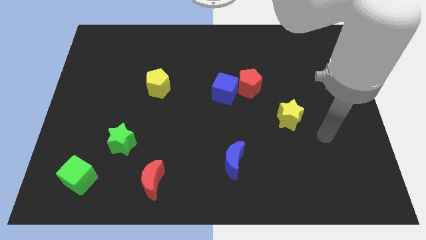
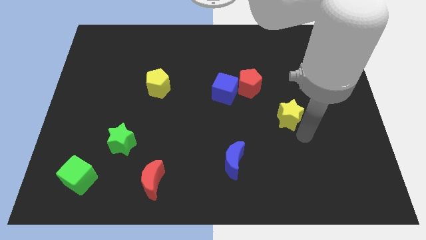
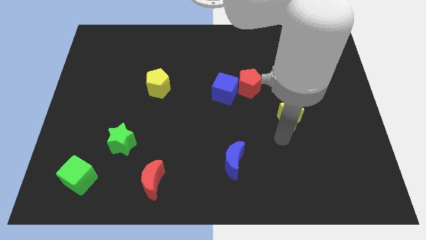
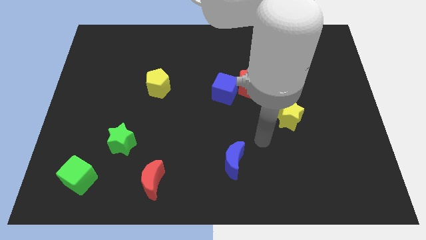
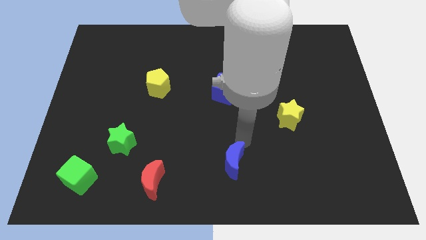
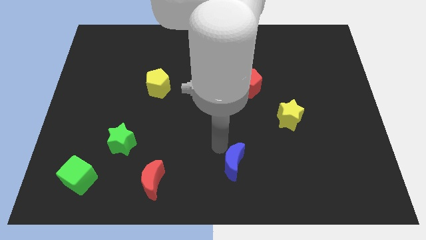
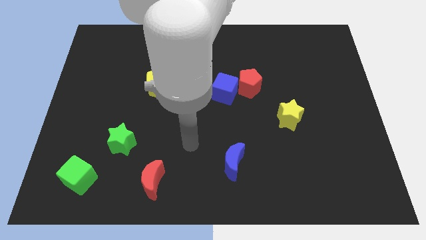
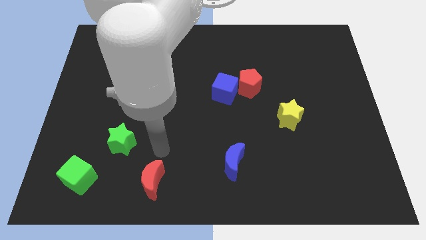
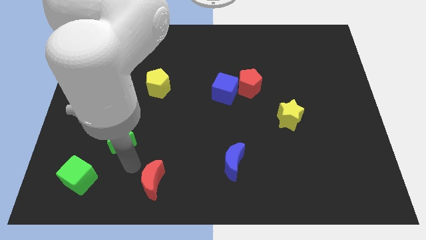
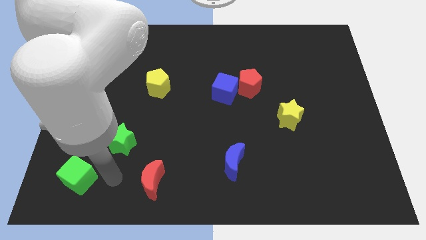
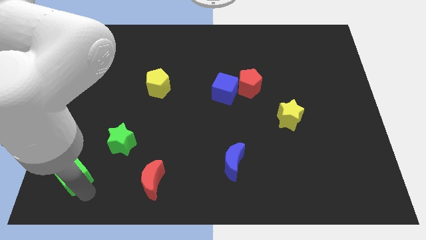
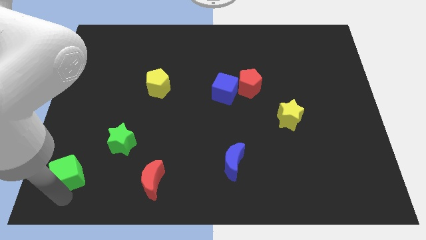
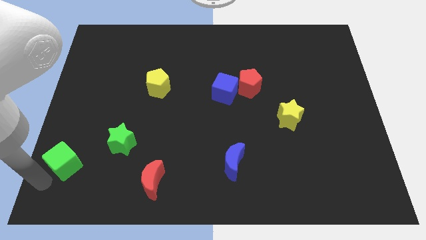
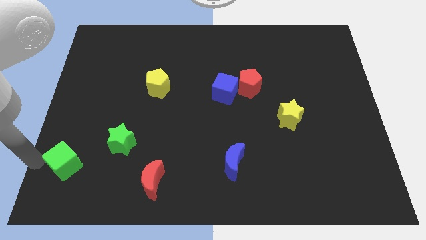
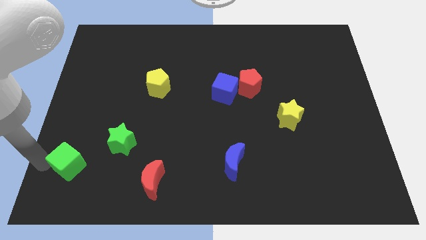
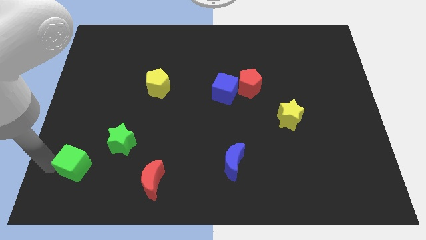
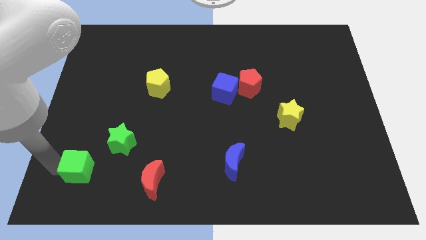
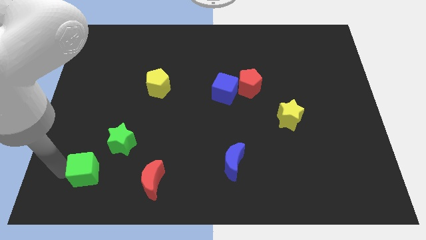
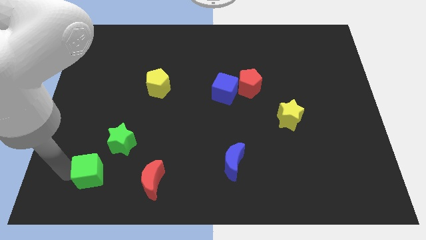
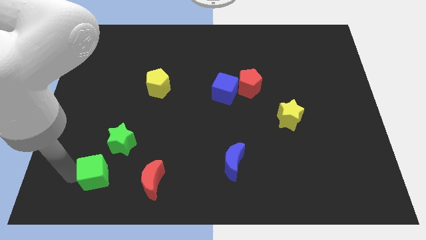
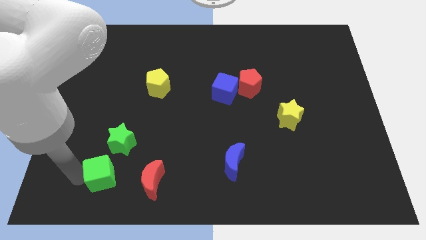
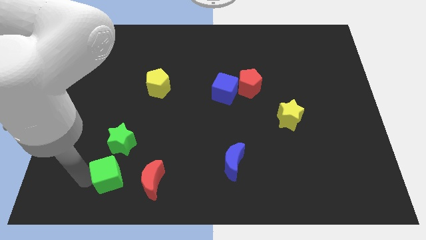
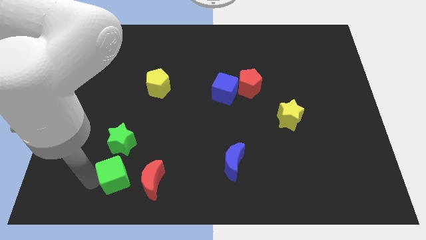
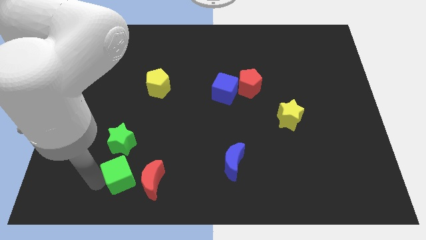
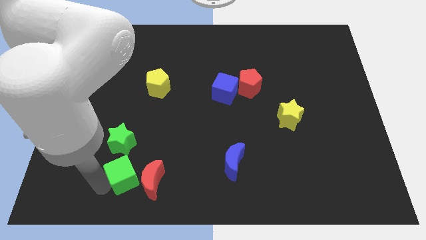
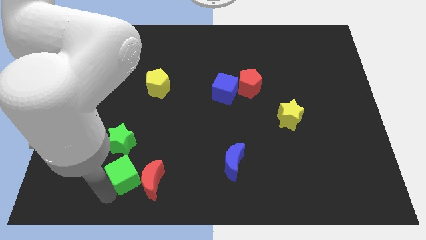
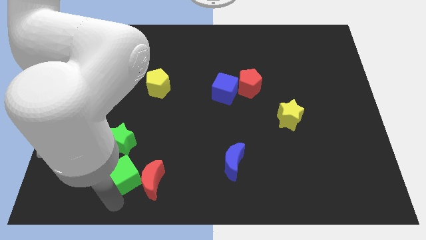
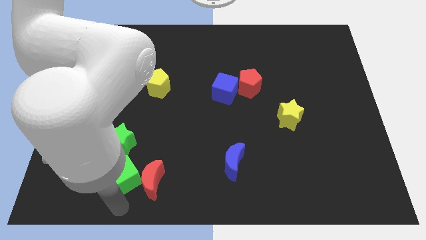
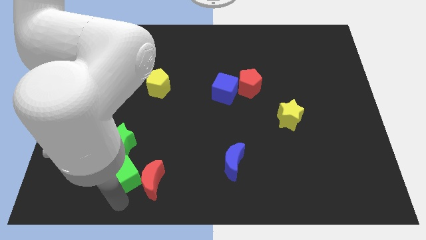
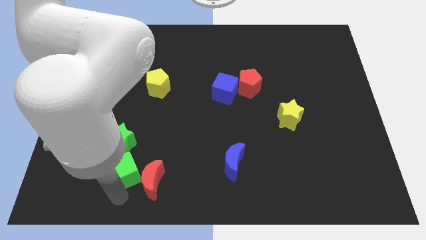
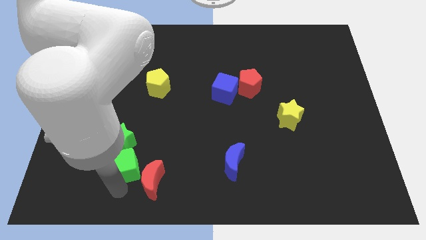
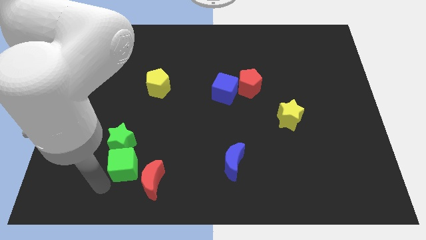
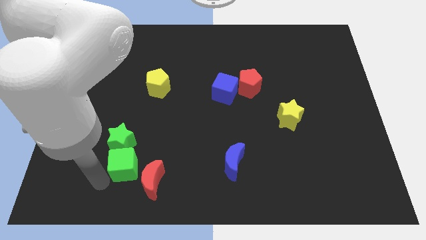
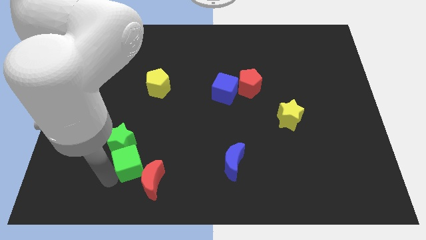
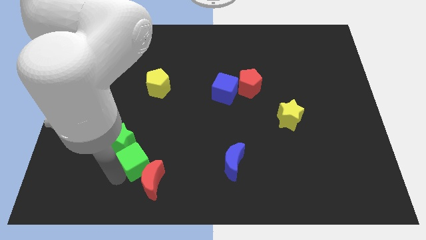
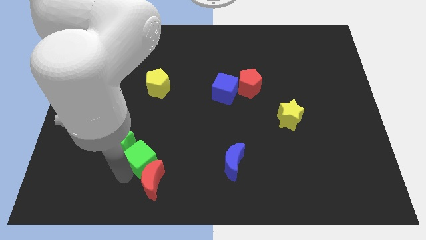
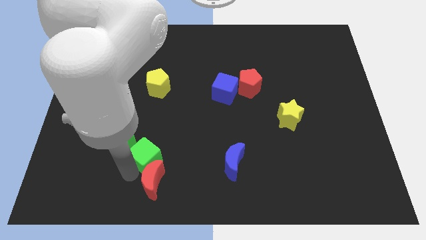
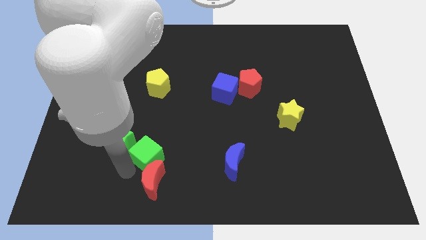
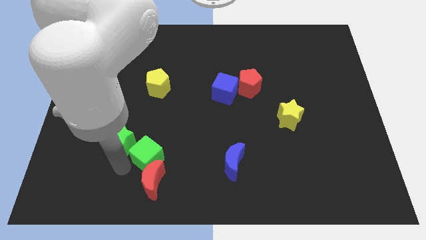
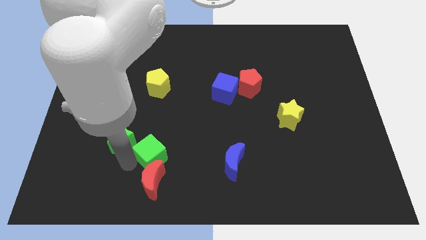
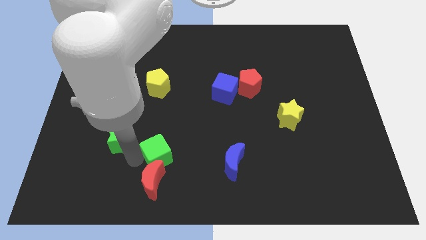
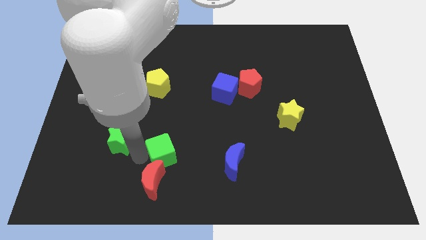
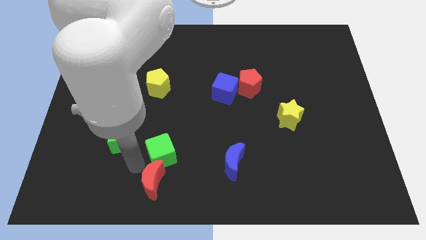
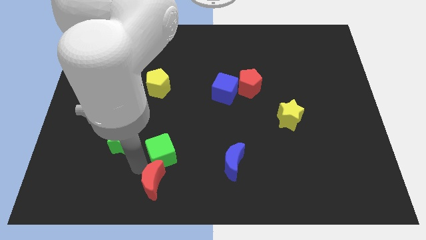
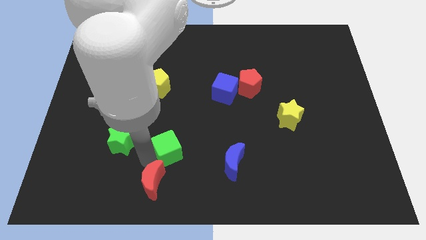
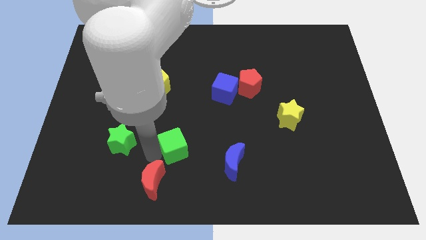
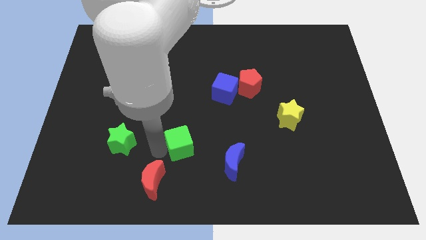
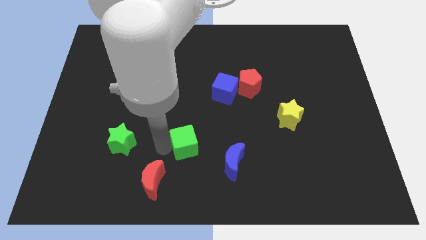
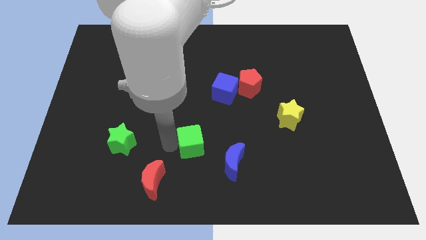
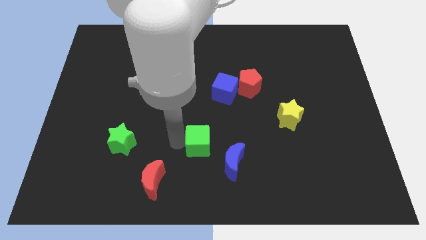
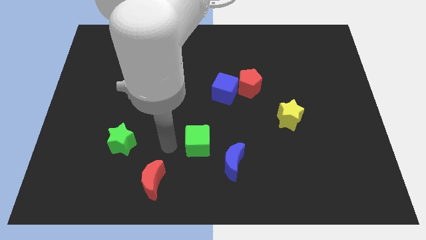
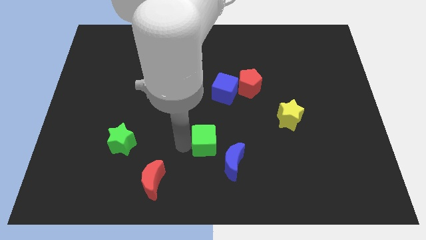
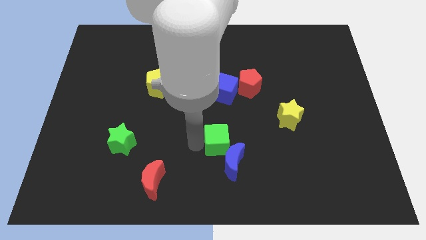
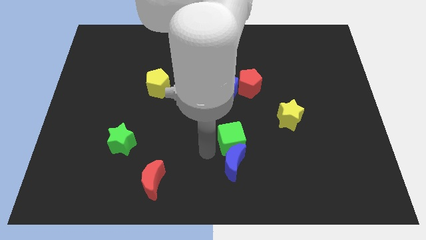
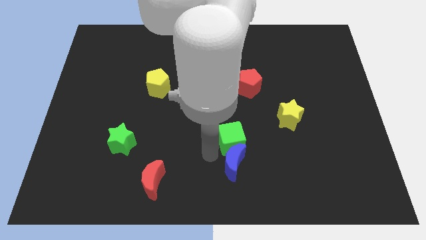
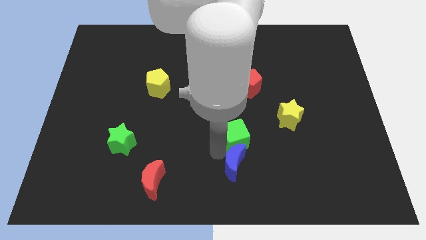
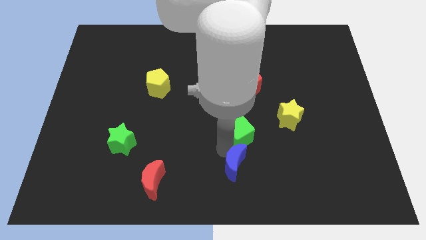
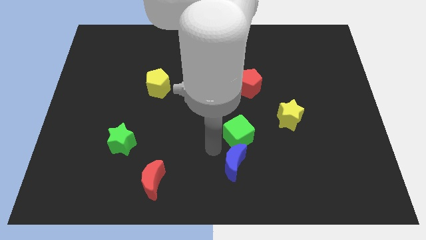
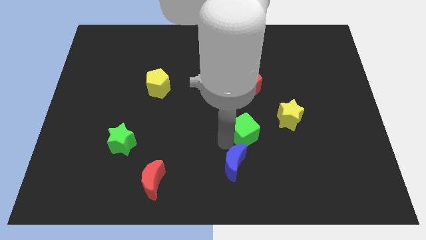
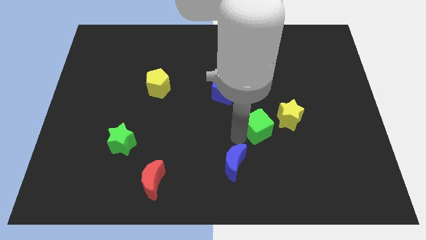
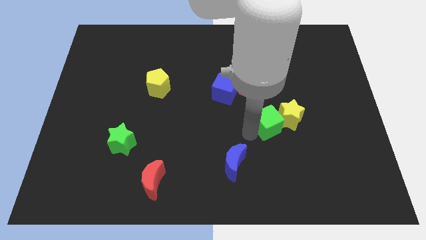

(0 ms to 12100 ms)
put the green cube close to the yellow star
